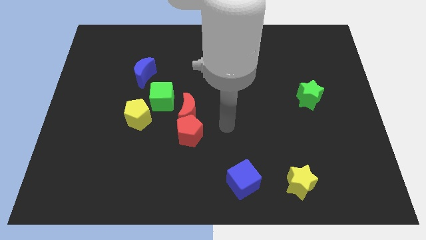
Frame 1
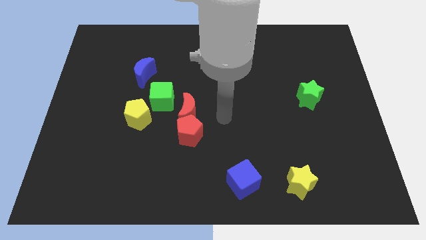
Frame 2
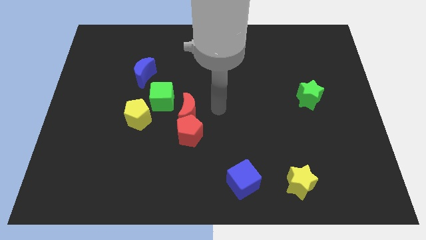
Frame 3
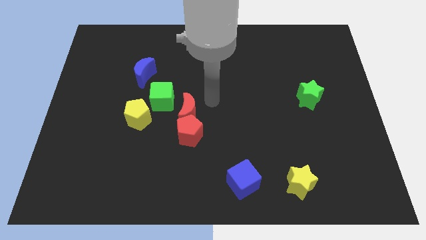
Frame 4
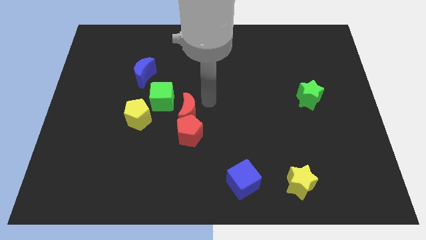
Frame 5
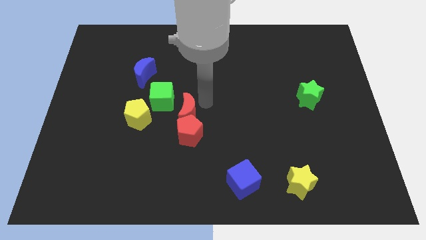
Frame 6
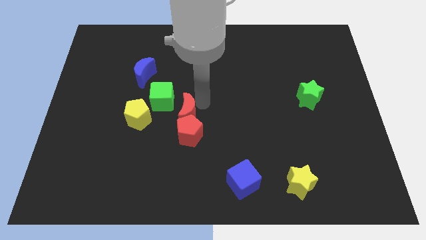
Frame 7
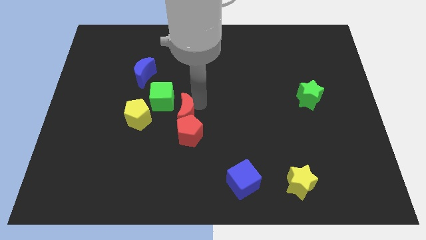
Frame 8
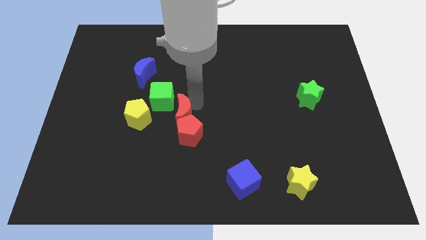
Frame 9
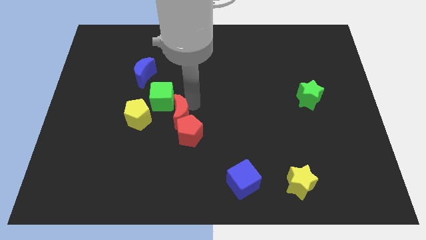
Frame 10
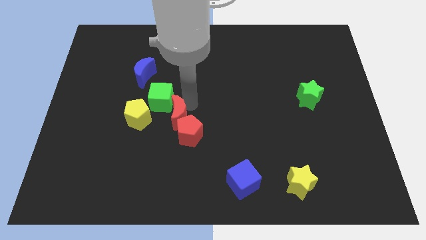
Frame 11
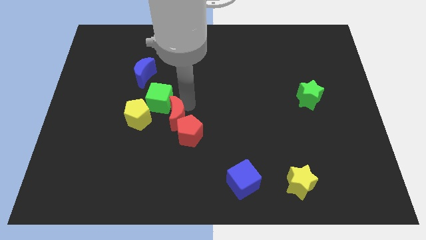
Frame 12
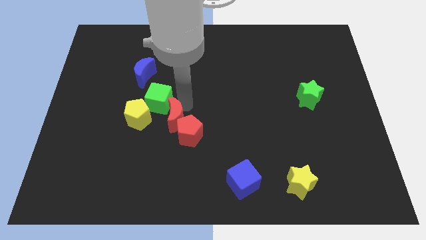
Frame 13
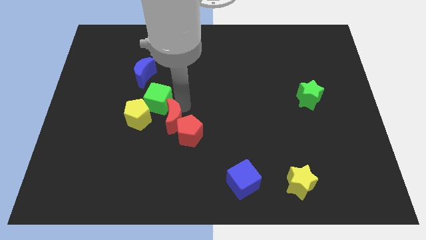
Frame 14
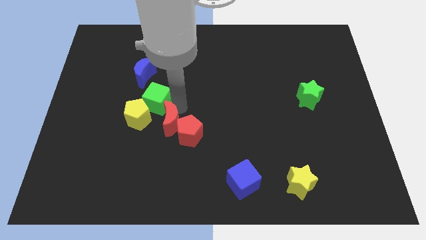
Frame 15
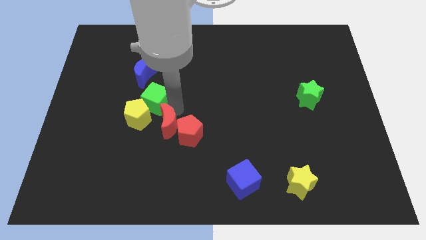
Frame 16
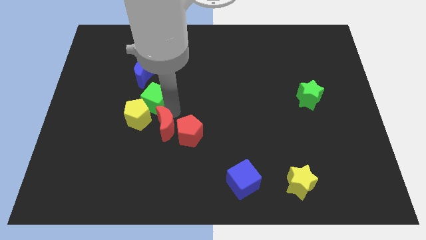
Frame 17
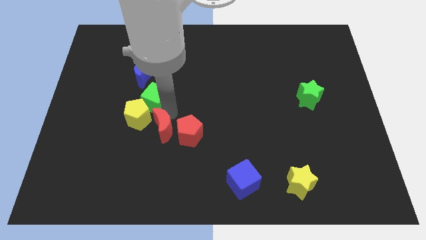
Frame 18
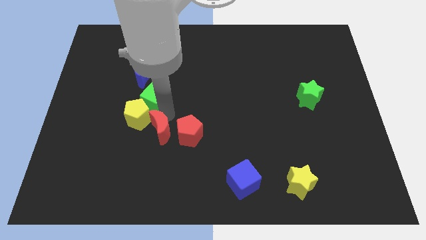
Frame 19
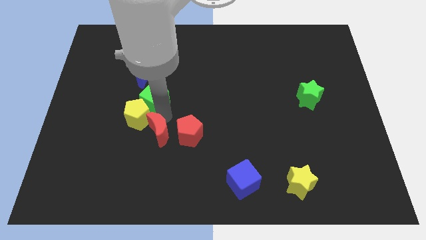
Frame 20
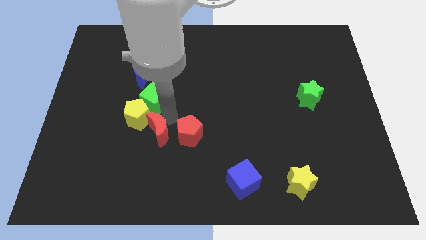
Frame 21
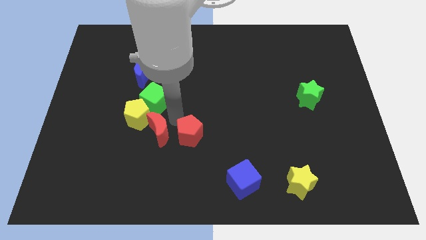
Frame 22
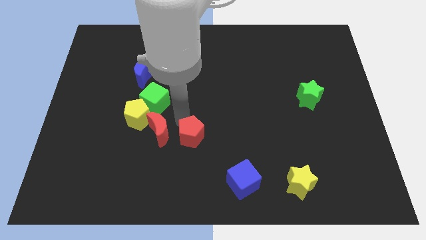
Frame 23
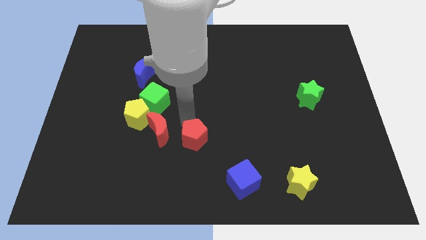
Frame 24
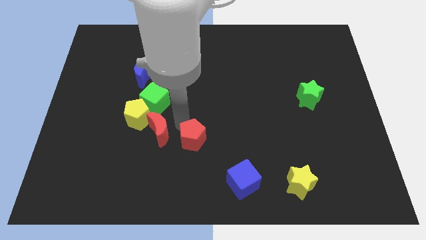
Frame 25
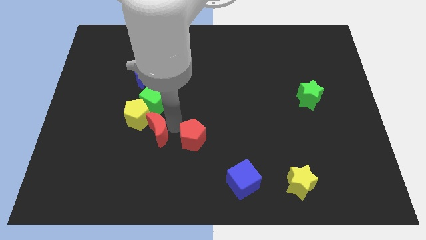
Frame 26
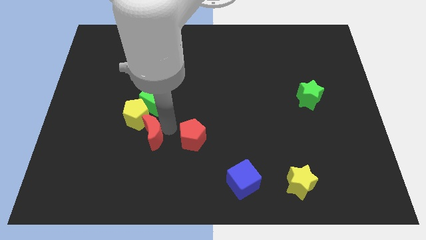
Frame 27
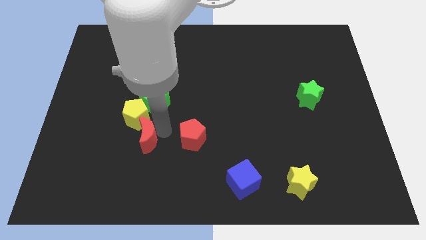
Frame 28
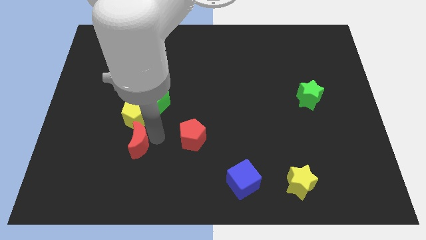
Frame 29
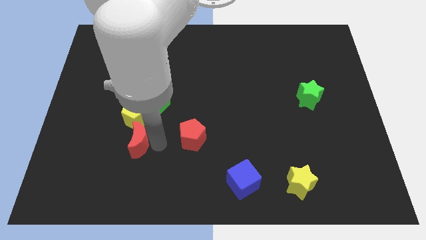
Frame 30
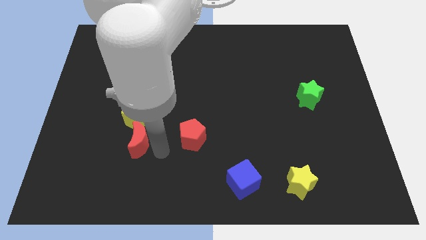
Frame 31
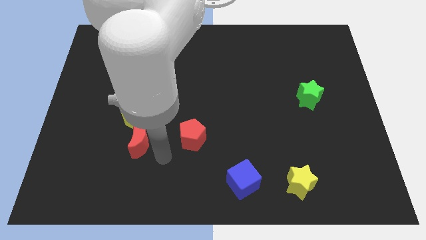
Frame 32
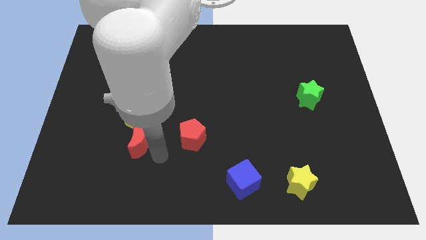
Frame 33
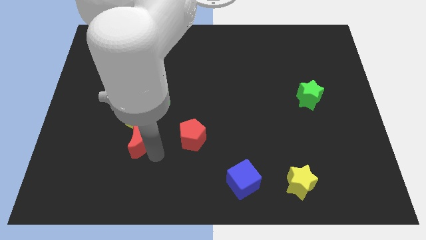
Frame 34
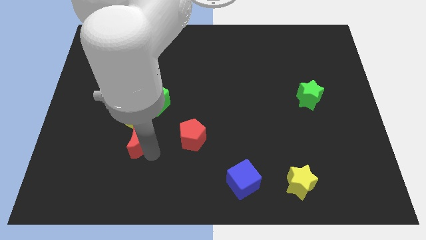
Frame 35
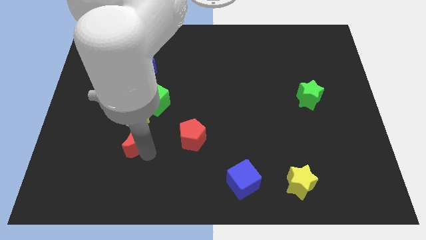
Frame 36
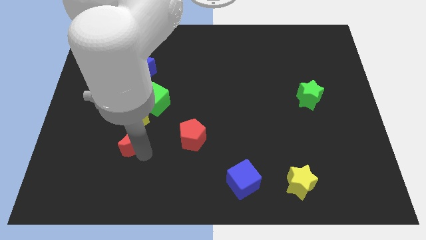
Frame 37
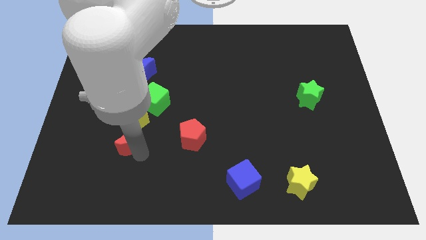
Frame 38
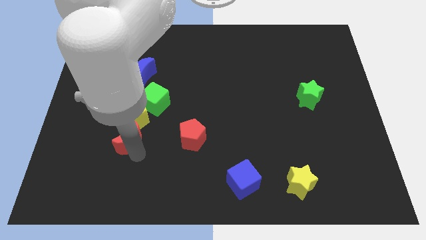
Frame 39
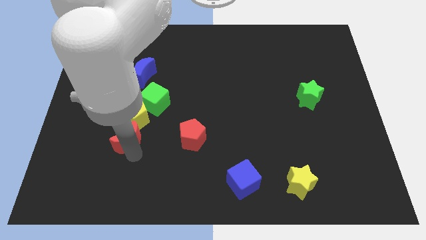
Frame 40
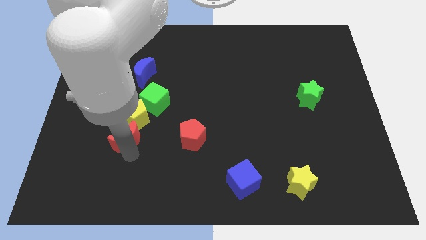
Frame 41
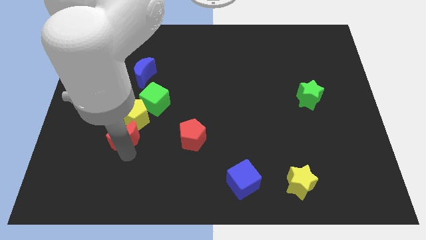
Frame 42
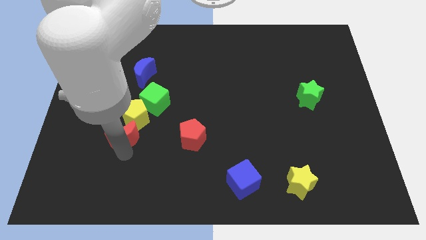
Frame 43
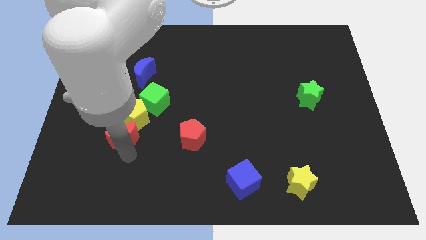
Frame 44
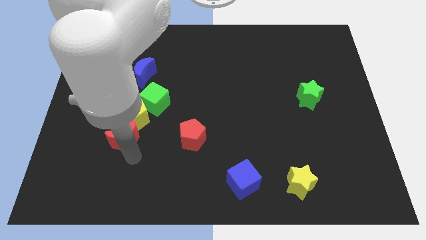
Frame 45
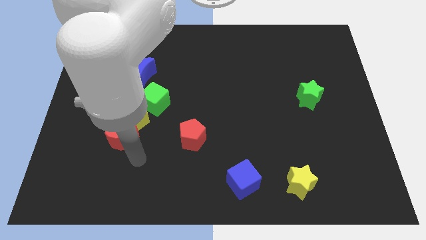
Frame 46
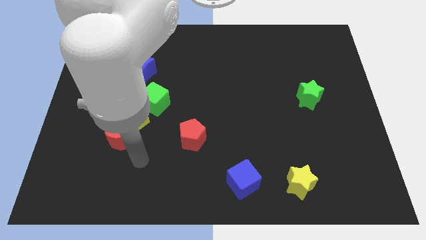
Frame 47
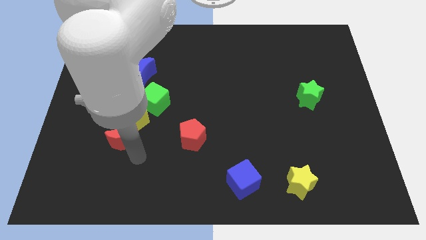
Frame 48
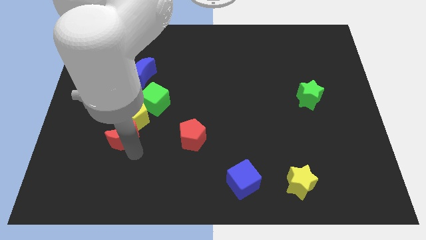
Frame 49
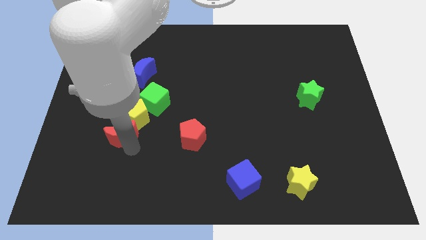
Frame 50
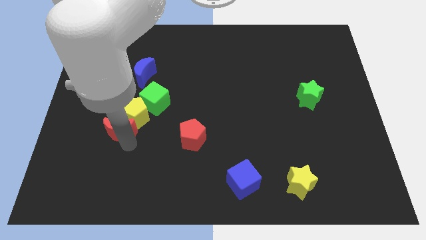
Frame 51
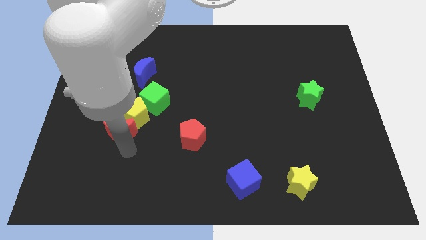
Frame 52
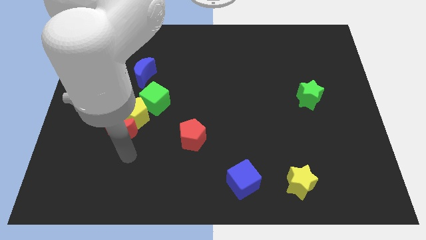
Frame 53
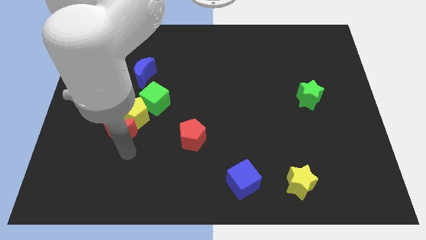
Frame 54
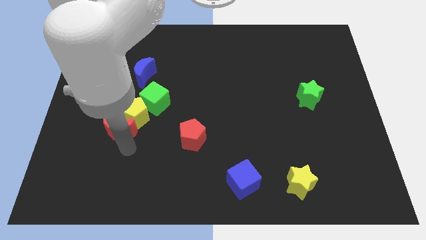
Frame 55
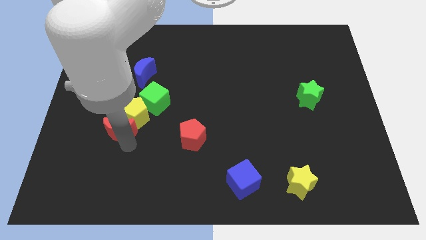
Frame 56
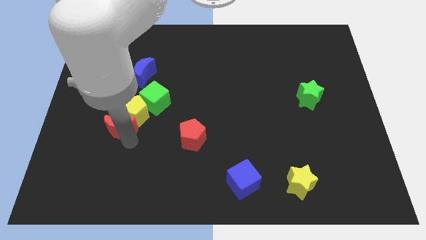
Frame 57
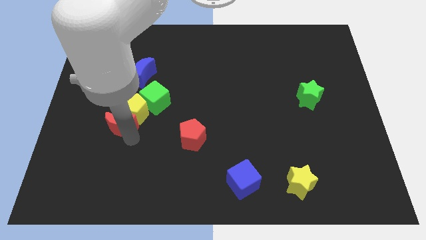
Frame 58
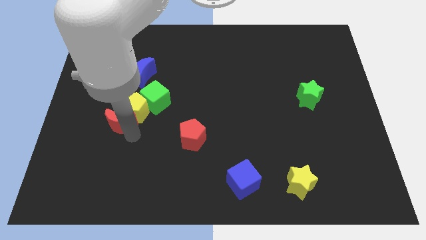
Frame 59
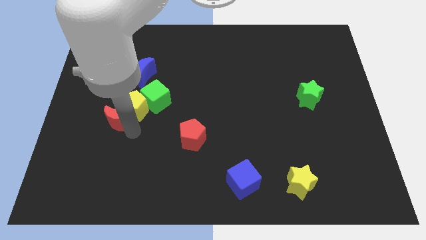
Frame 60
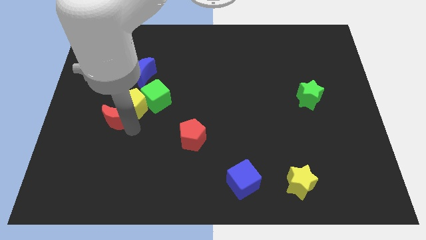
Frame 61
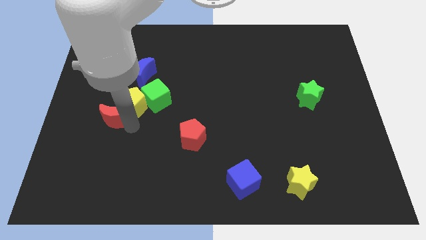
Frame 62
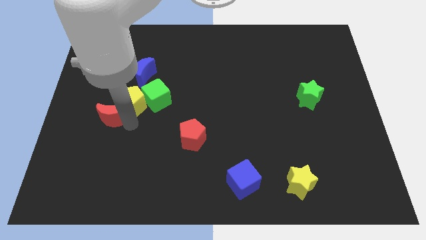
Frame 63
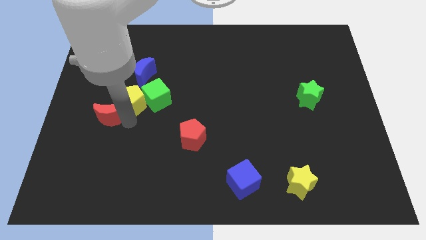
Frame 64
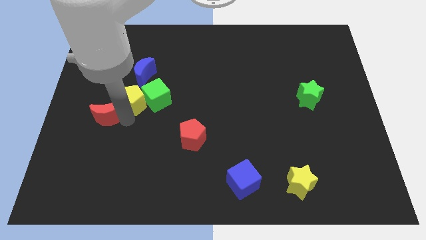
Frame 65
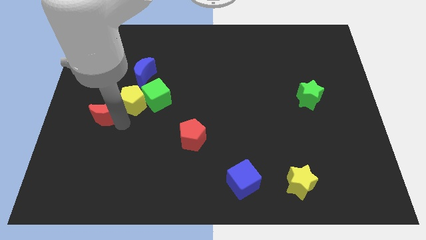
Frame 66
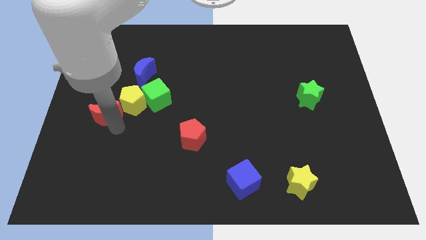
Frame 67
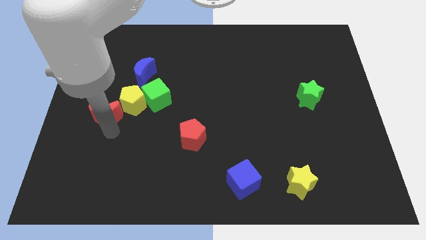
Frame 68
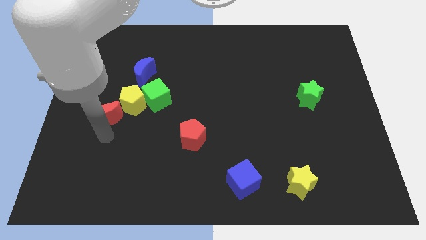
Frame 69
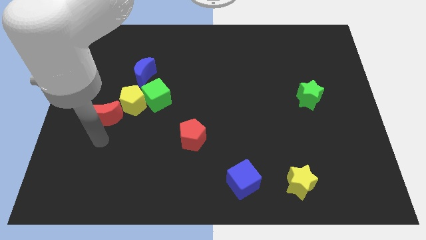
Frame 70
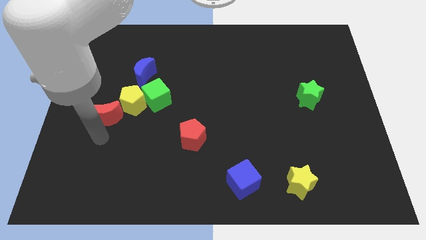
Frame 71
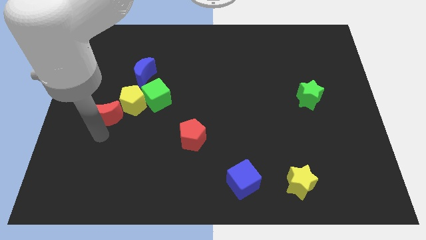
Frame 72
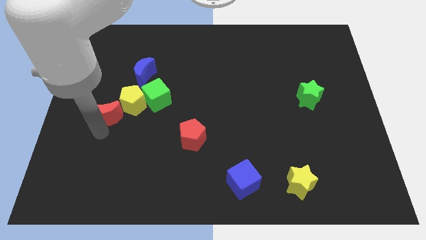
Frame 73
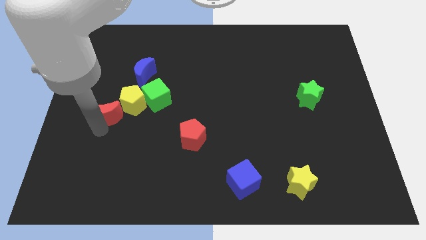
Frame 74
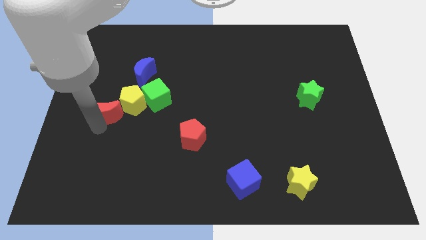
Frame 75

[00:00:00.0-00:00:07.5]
slide the red moon to the left side of the green cube

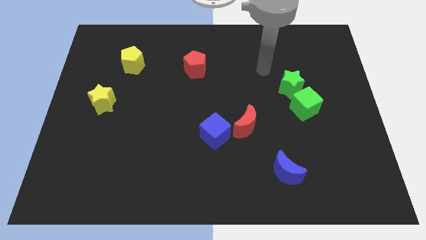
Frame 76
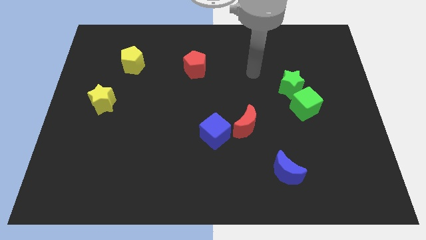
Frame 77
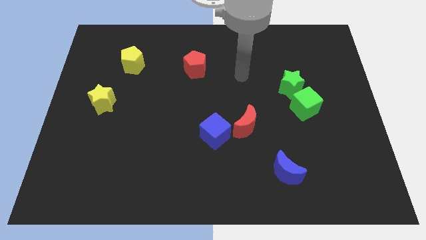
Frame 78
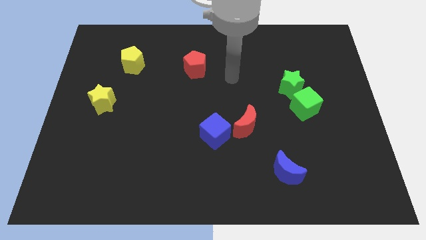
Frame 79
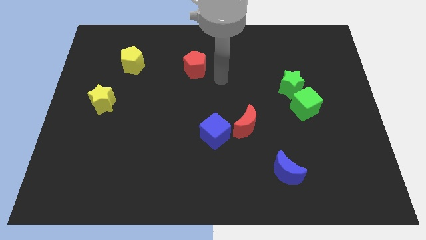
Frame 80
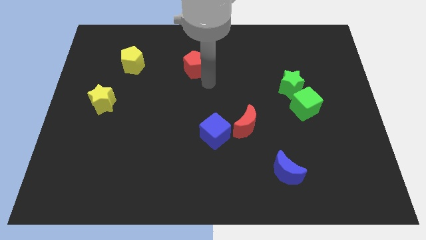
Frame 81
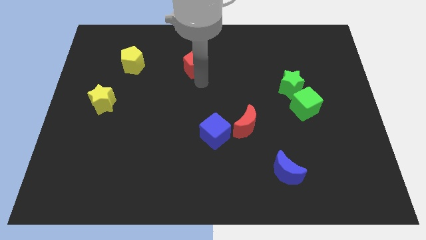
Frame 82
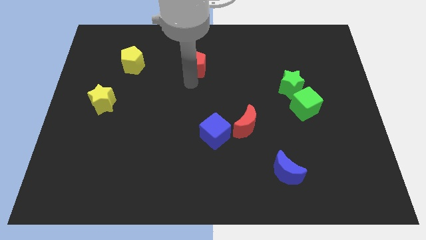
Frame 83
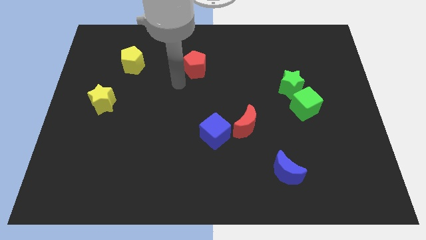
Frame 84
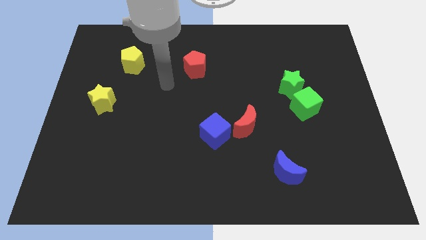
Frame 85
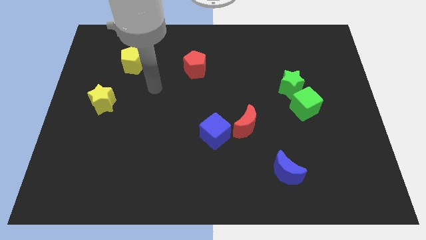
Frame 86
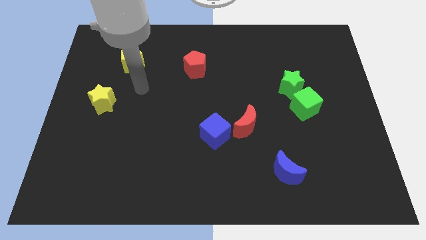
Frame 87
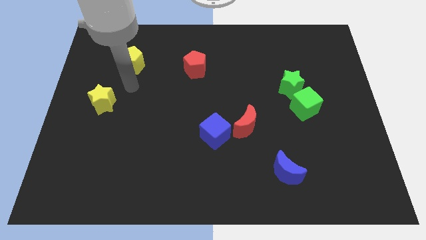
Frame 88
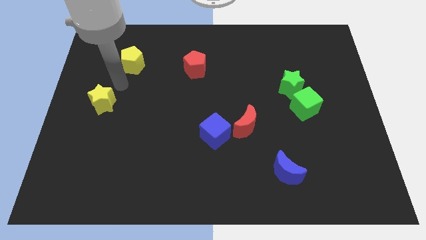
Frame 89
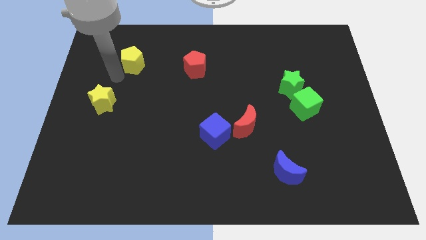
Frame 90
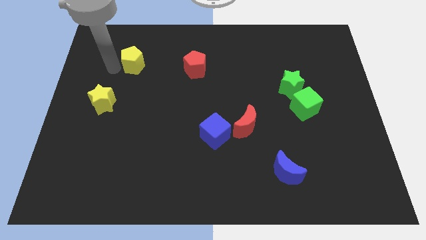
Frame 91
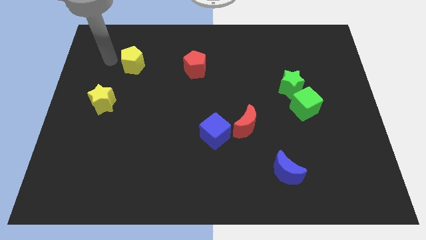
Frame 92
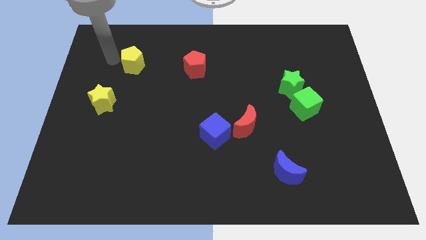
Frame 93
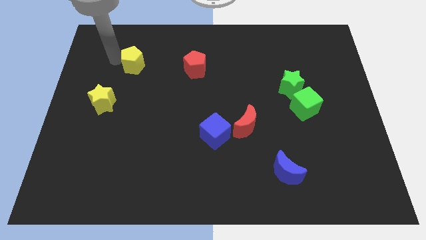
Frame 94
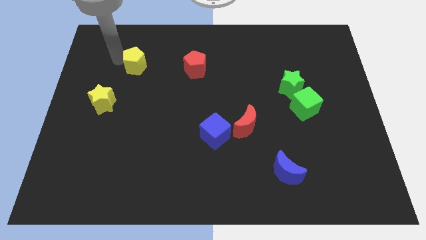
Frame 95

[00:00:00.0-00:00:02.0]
move the yellow pentagon to the left of the red pentagon
